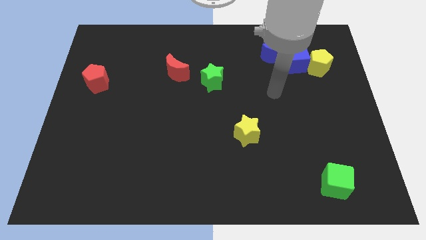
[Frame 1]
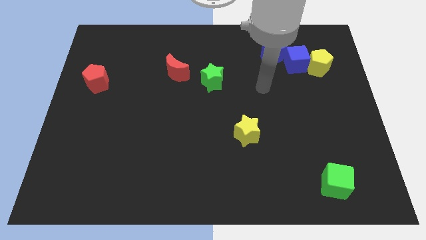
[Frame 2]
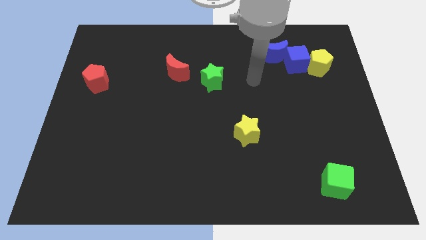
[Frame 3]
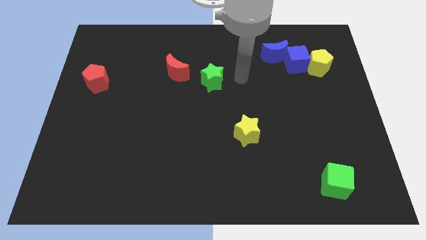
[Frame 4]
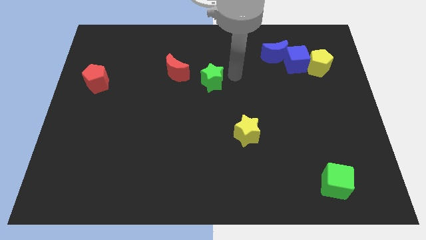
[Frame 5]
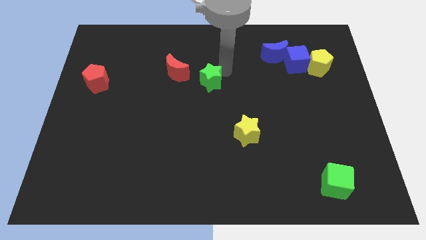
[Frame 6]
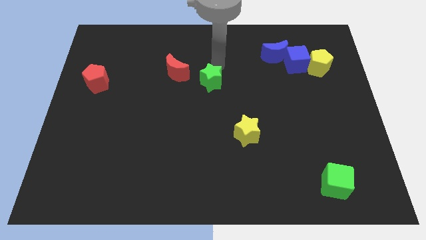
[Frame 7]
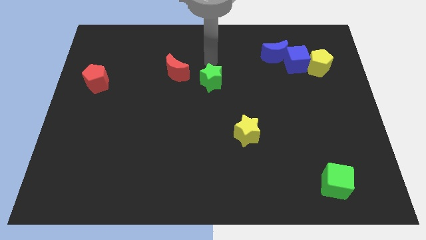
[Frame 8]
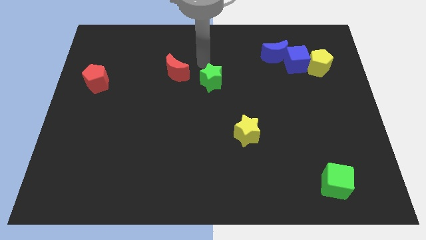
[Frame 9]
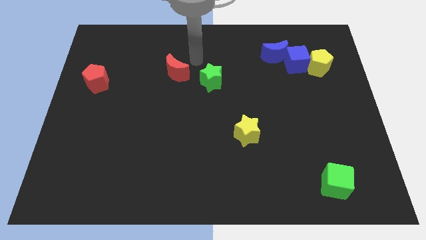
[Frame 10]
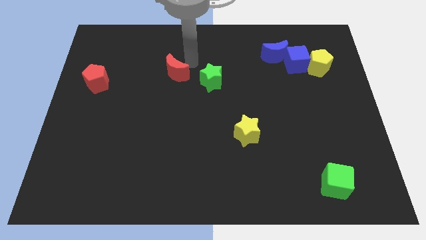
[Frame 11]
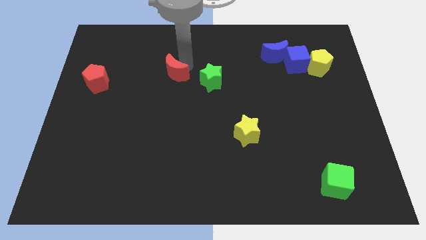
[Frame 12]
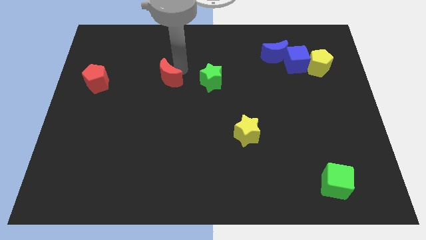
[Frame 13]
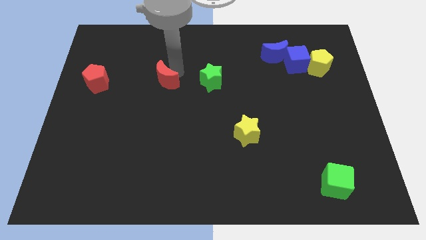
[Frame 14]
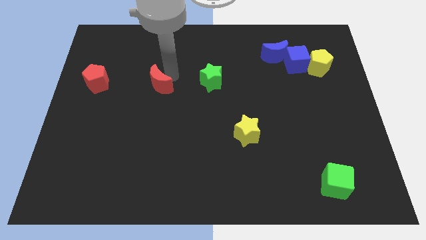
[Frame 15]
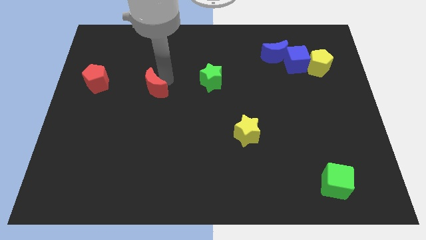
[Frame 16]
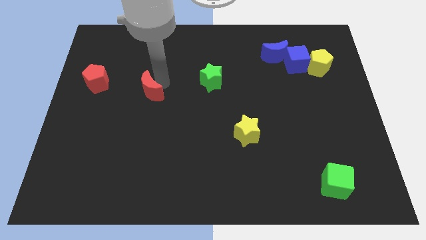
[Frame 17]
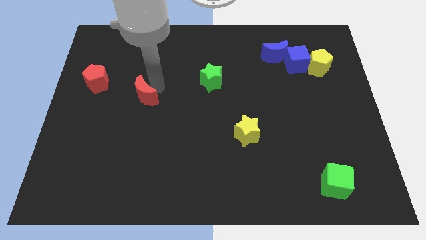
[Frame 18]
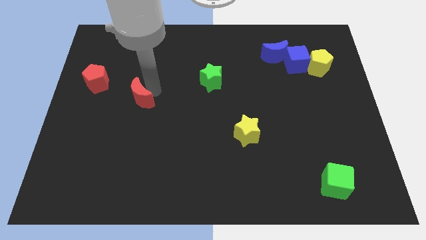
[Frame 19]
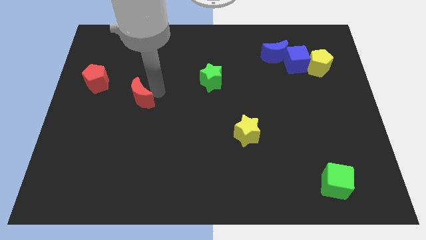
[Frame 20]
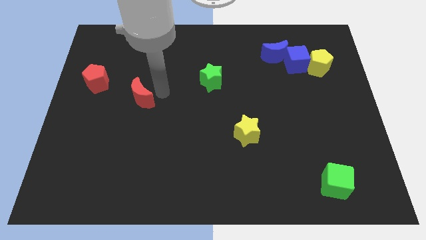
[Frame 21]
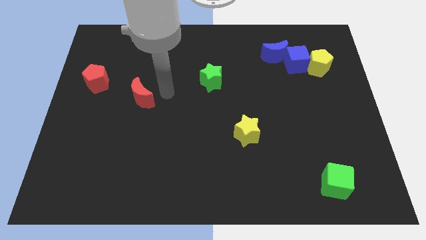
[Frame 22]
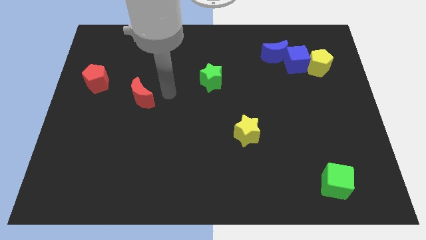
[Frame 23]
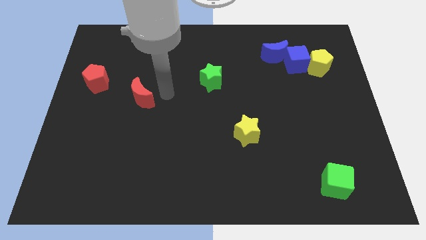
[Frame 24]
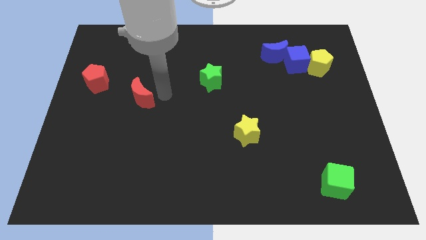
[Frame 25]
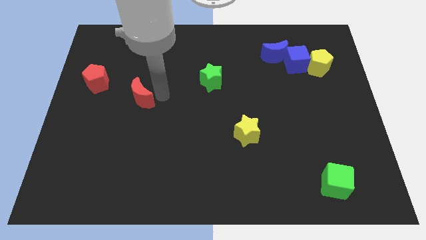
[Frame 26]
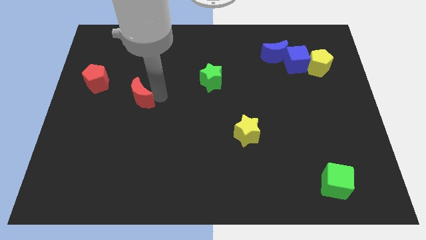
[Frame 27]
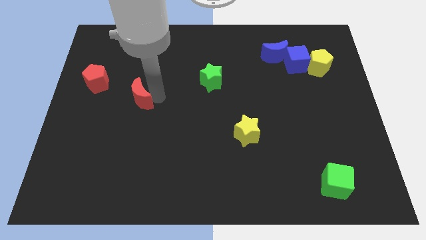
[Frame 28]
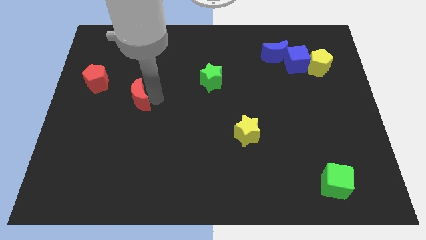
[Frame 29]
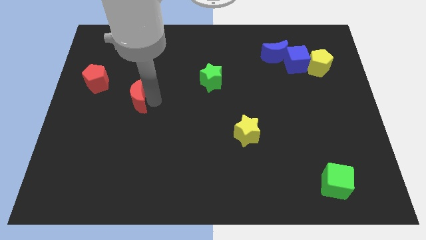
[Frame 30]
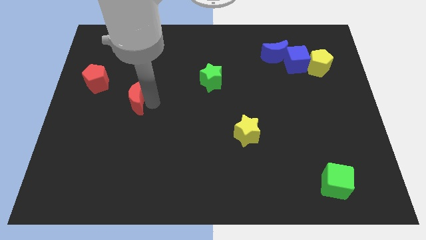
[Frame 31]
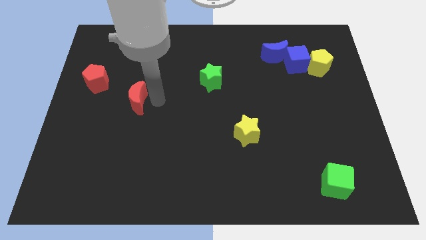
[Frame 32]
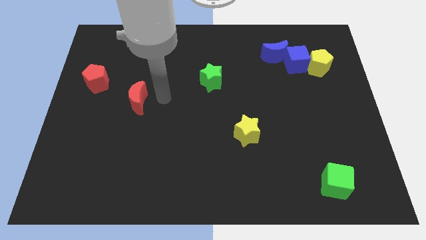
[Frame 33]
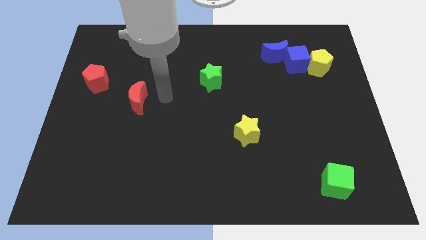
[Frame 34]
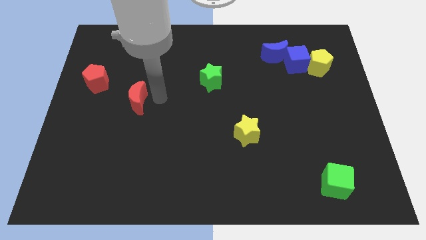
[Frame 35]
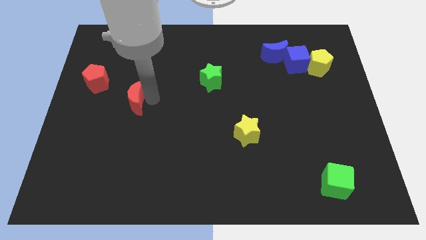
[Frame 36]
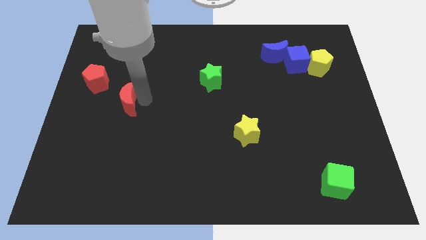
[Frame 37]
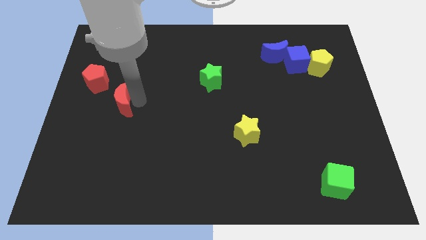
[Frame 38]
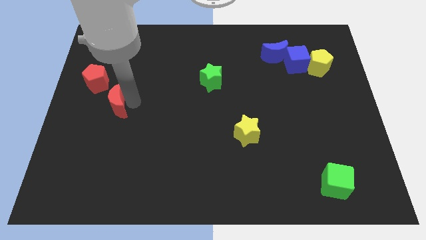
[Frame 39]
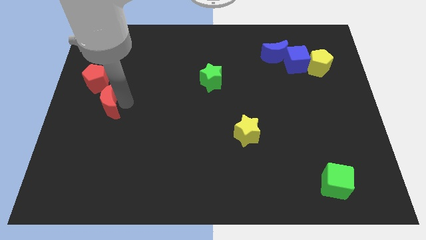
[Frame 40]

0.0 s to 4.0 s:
push the red moon to the bottom of the red pentagon

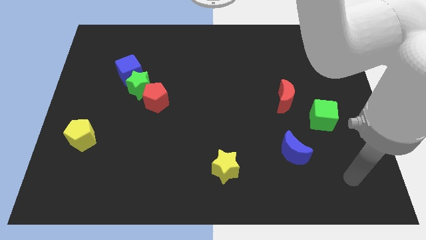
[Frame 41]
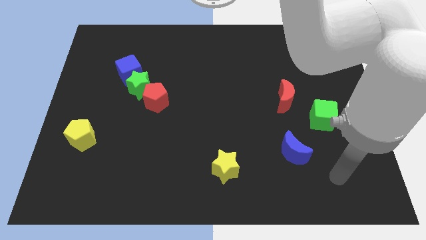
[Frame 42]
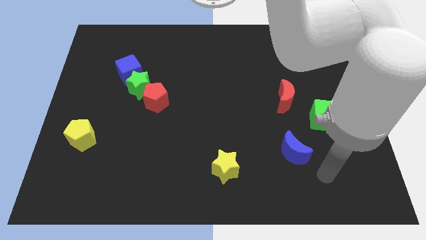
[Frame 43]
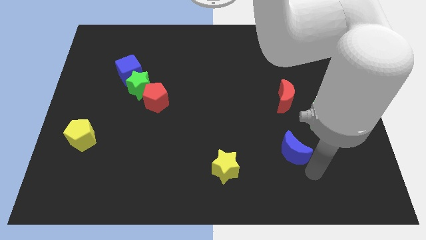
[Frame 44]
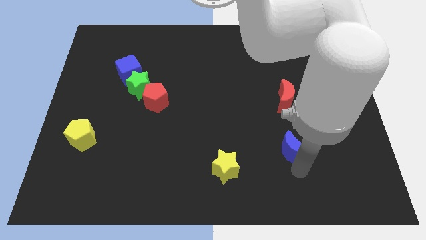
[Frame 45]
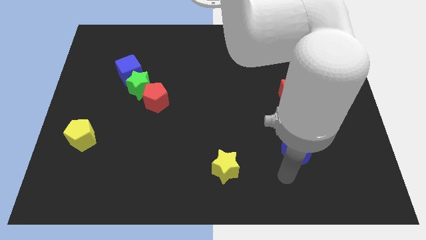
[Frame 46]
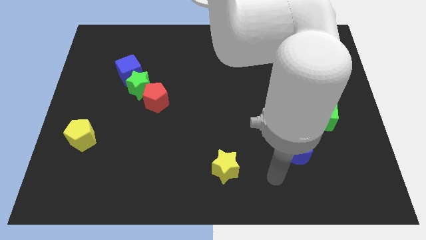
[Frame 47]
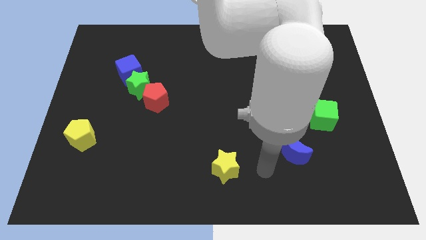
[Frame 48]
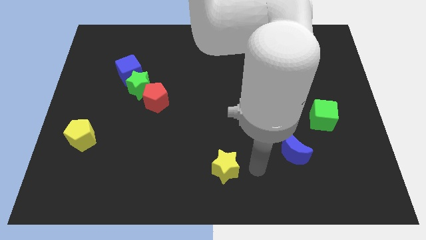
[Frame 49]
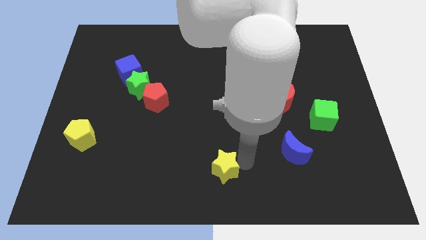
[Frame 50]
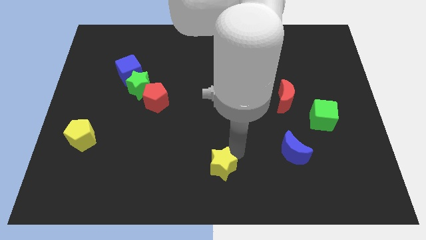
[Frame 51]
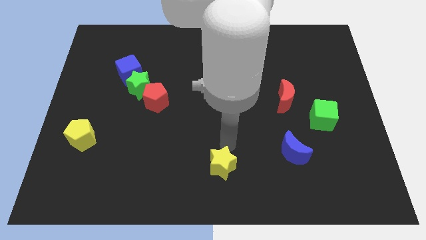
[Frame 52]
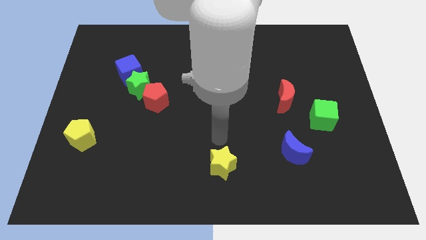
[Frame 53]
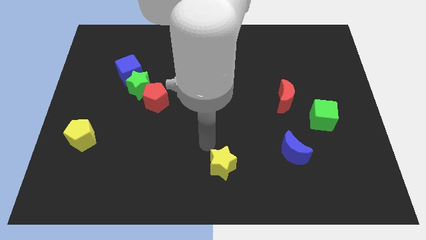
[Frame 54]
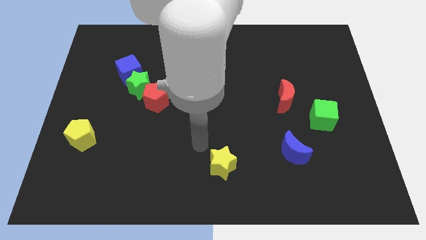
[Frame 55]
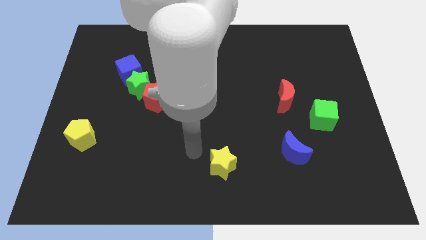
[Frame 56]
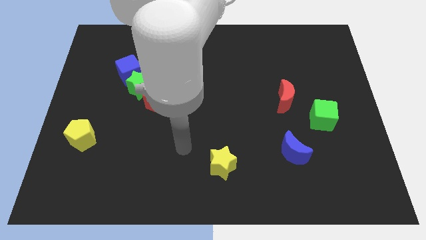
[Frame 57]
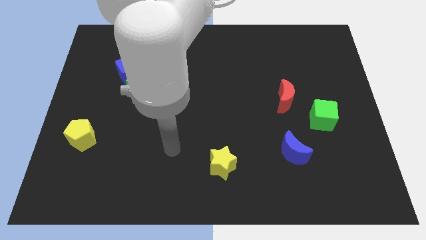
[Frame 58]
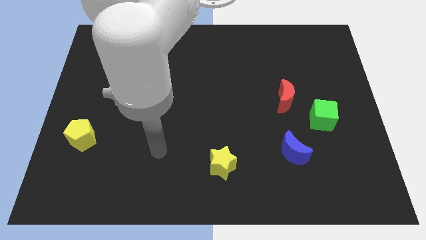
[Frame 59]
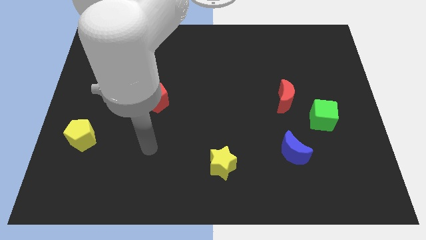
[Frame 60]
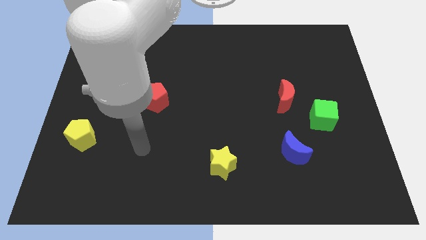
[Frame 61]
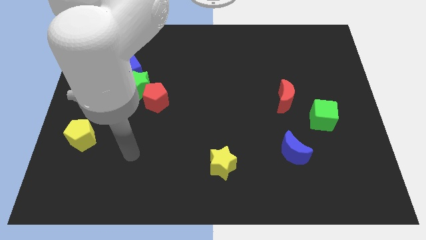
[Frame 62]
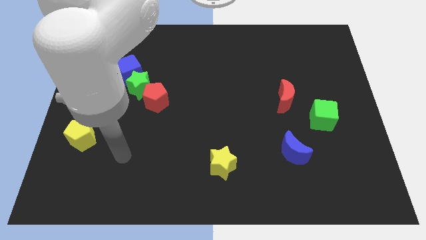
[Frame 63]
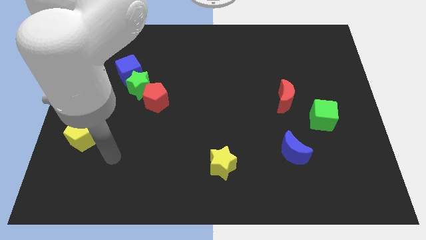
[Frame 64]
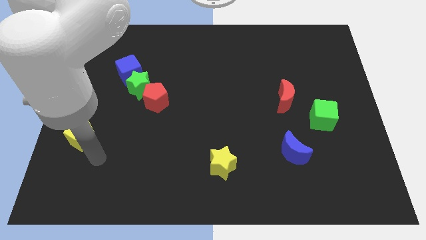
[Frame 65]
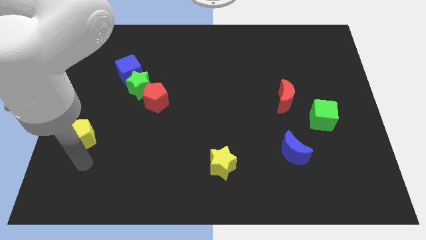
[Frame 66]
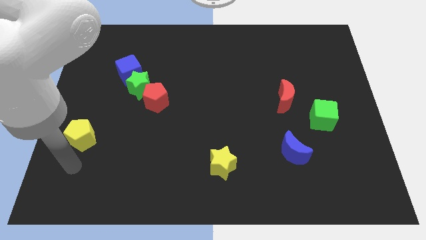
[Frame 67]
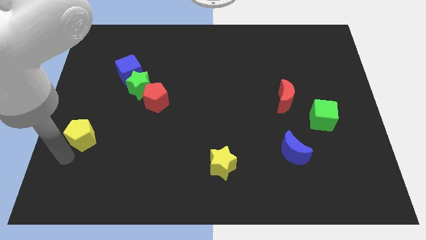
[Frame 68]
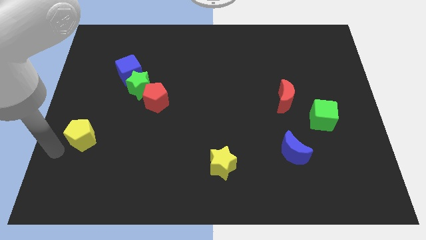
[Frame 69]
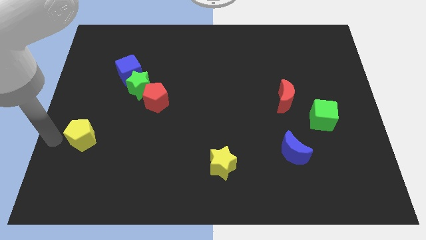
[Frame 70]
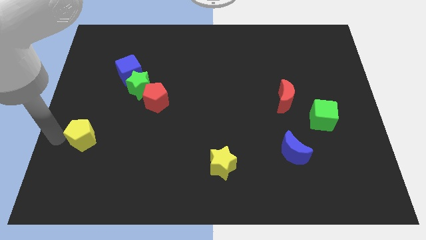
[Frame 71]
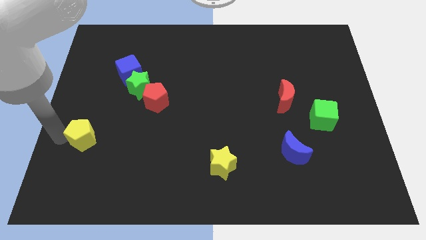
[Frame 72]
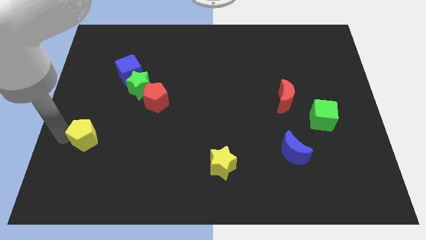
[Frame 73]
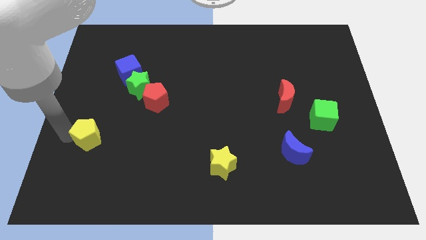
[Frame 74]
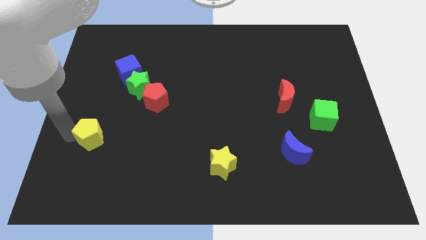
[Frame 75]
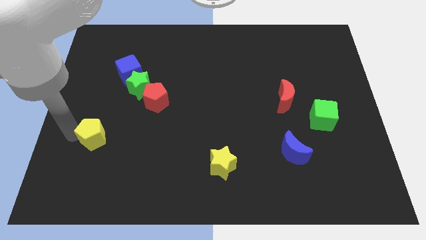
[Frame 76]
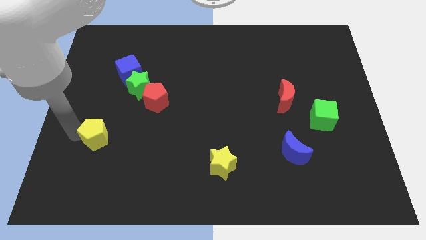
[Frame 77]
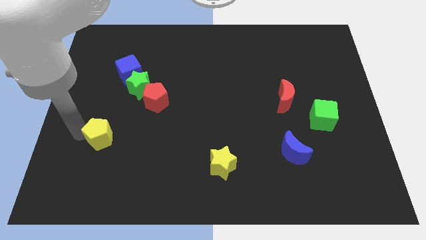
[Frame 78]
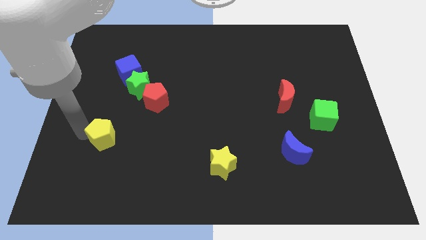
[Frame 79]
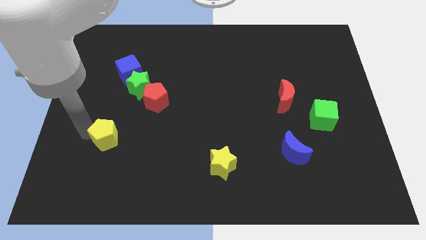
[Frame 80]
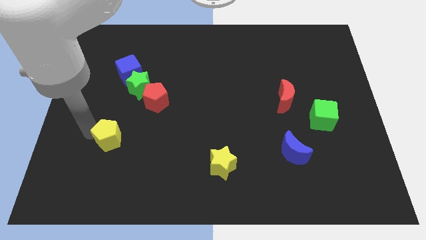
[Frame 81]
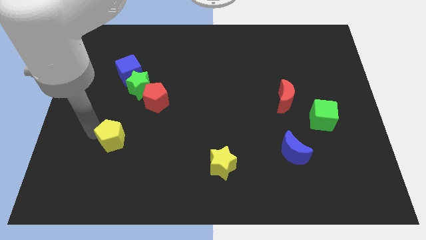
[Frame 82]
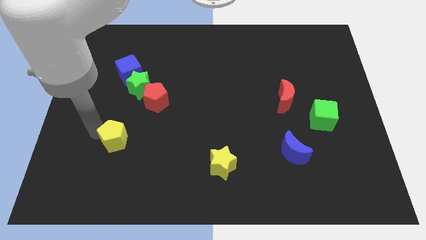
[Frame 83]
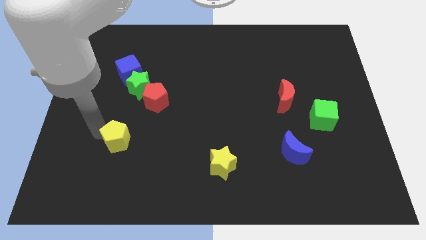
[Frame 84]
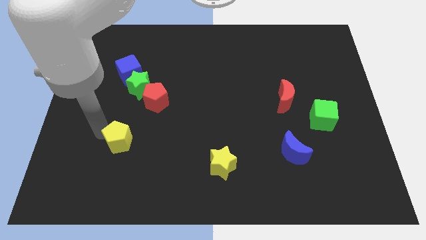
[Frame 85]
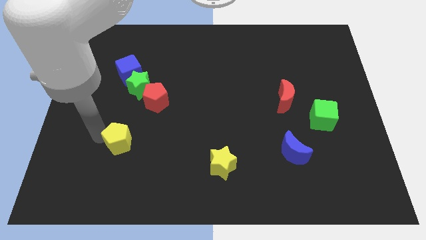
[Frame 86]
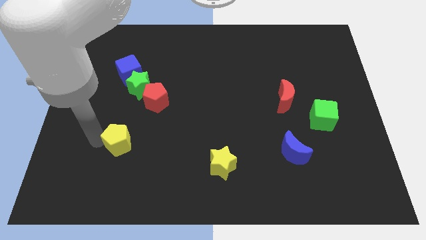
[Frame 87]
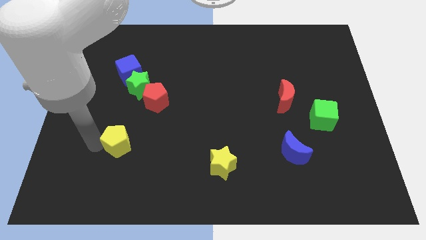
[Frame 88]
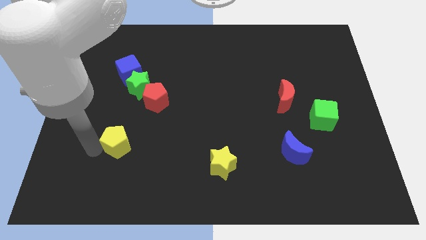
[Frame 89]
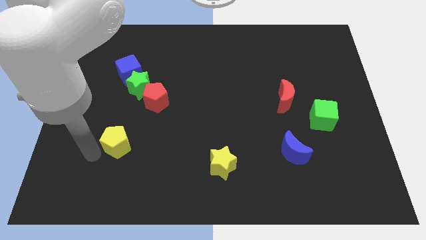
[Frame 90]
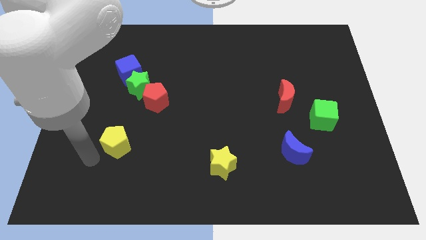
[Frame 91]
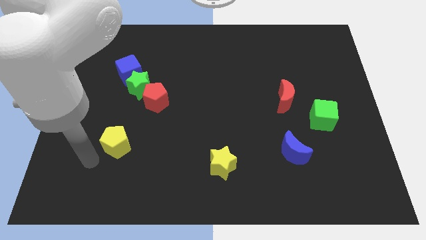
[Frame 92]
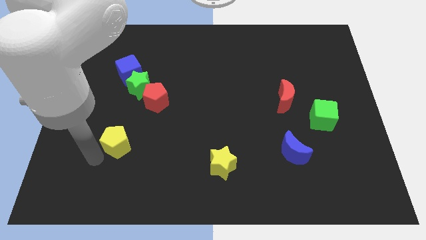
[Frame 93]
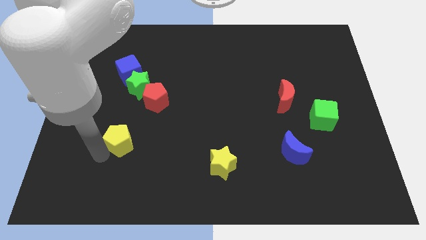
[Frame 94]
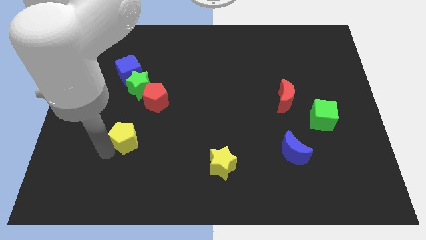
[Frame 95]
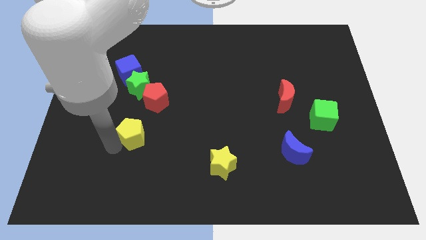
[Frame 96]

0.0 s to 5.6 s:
move the yellow pentagon below the red pentagon
